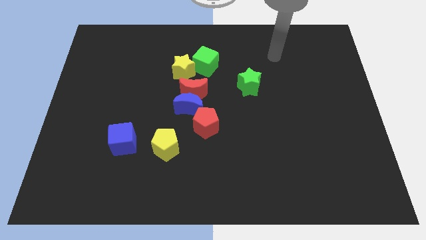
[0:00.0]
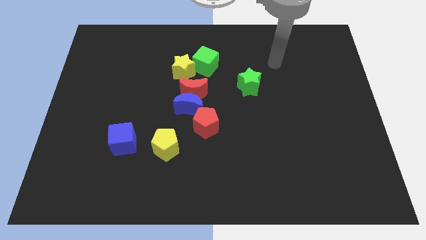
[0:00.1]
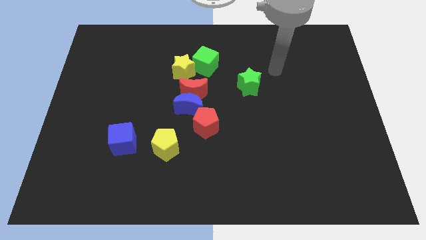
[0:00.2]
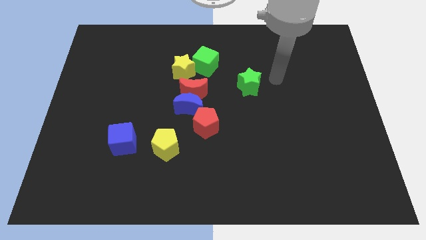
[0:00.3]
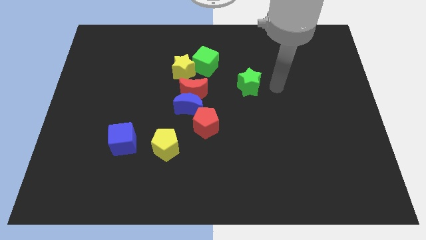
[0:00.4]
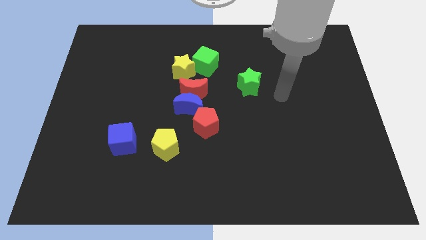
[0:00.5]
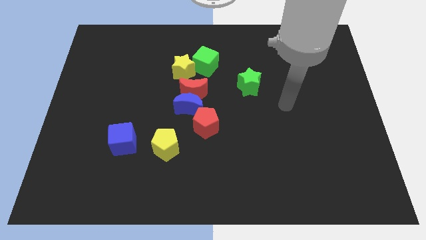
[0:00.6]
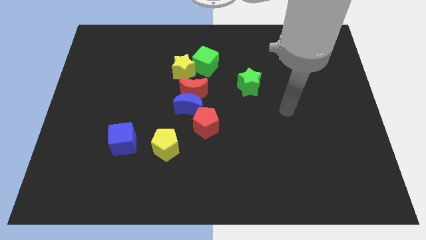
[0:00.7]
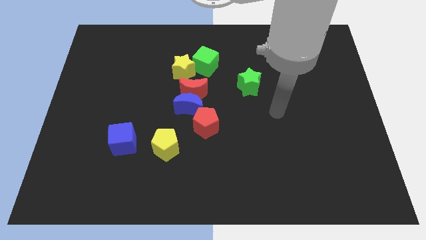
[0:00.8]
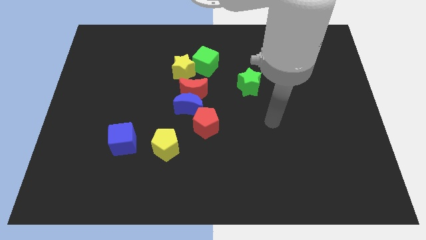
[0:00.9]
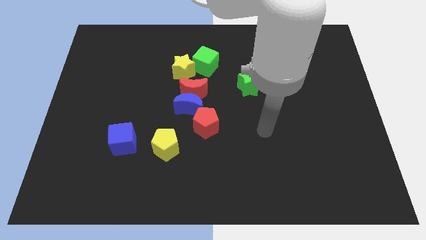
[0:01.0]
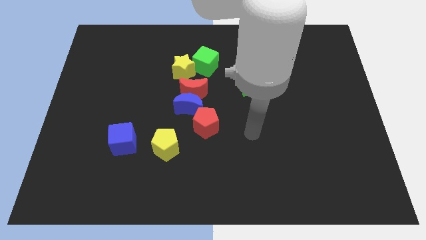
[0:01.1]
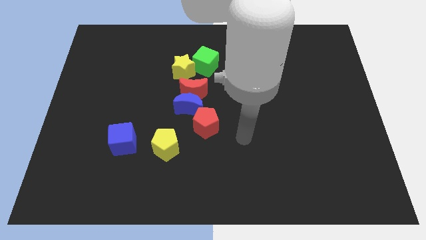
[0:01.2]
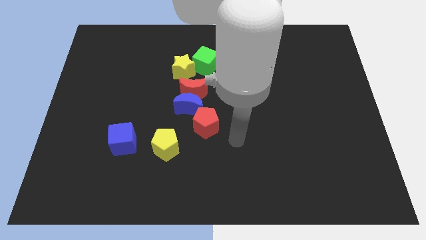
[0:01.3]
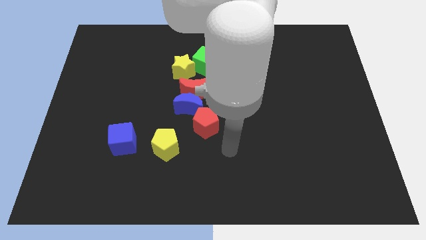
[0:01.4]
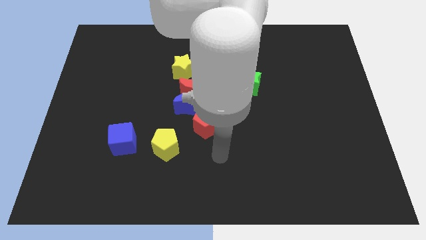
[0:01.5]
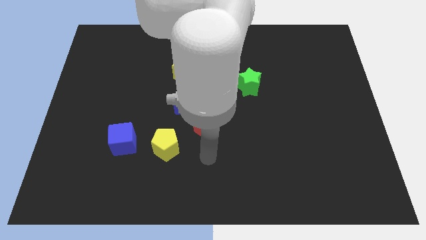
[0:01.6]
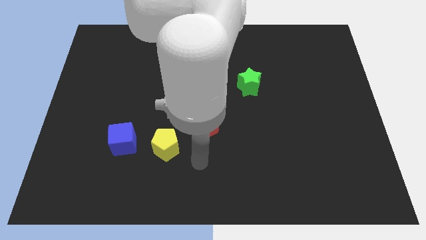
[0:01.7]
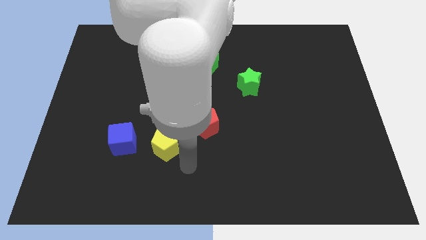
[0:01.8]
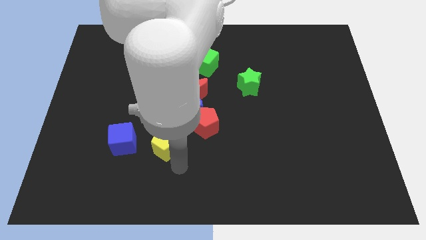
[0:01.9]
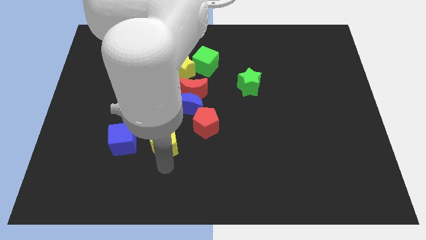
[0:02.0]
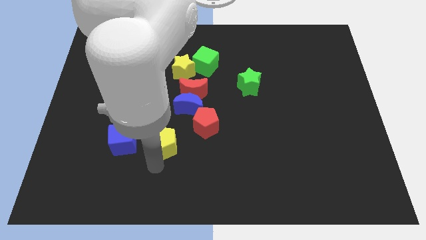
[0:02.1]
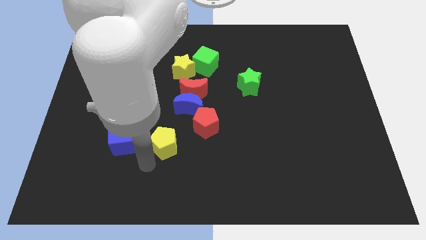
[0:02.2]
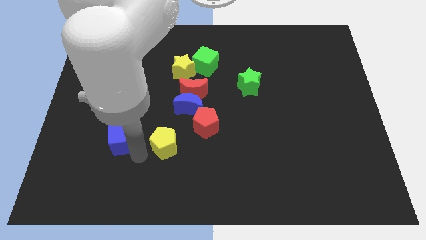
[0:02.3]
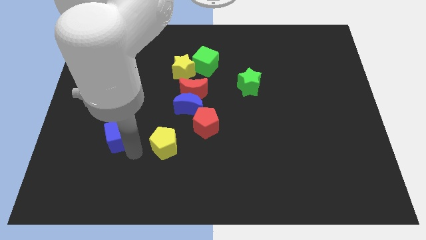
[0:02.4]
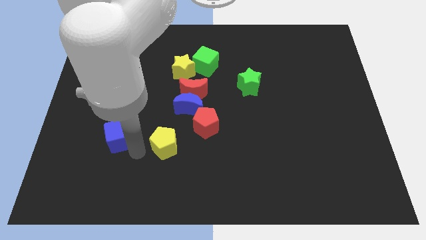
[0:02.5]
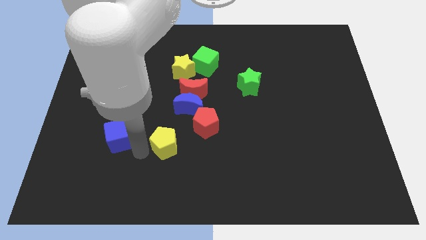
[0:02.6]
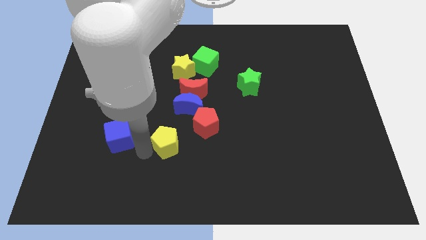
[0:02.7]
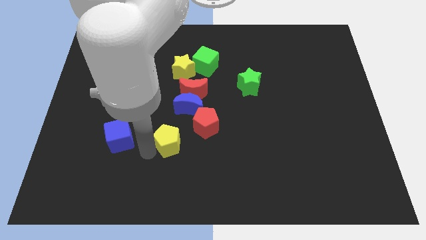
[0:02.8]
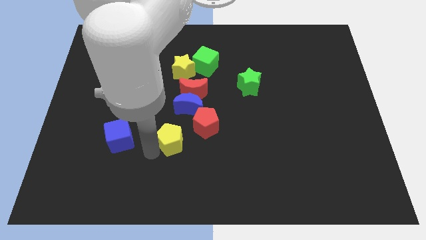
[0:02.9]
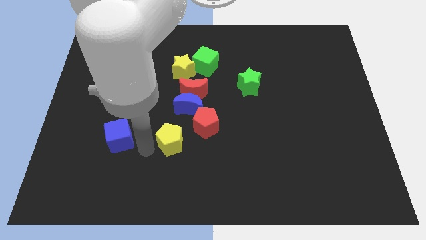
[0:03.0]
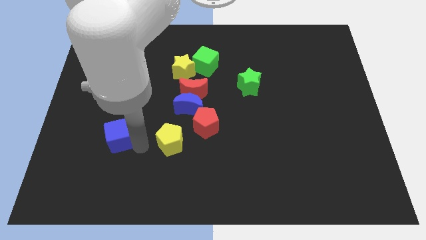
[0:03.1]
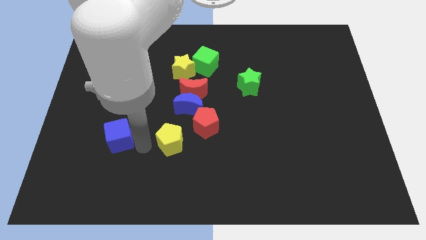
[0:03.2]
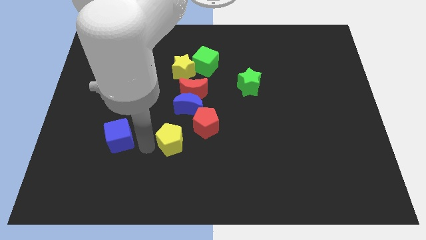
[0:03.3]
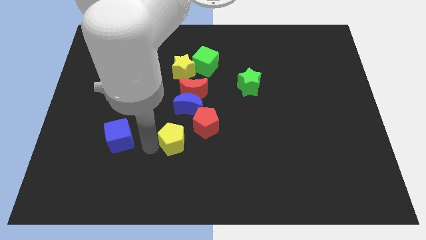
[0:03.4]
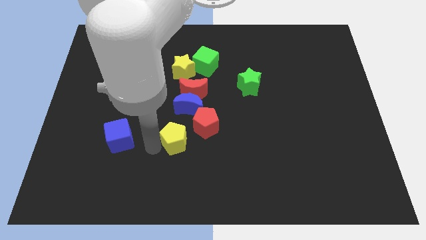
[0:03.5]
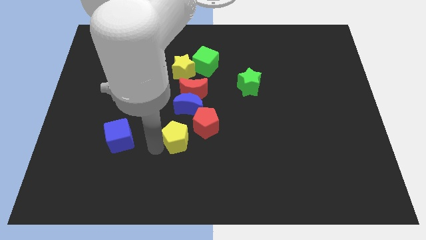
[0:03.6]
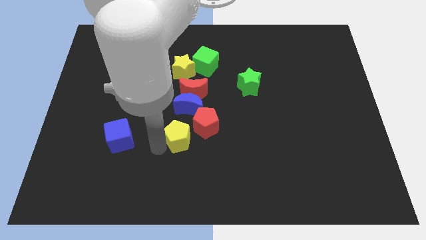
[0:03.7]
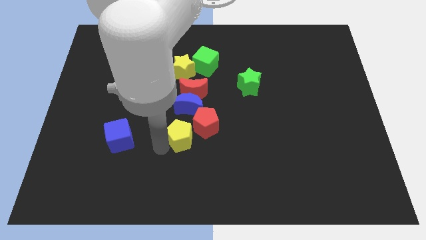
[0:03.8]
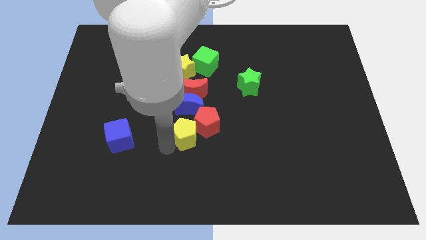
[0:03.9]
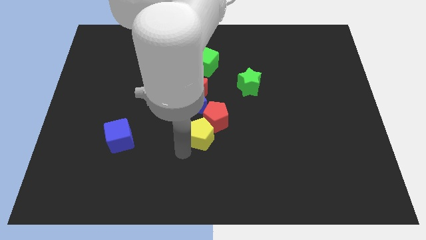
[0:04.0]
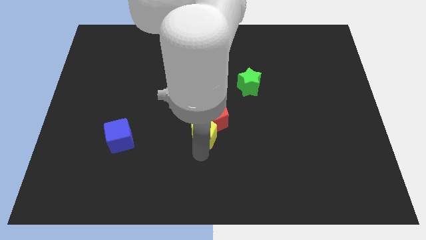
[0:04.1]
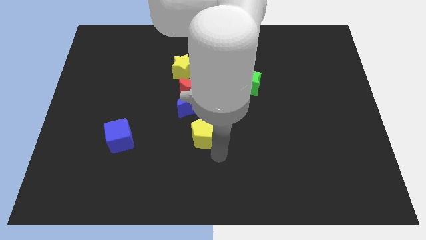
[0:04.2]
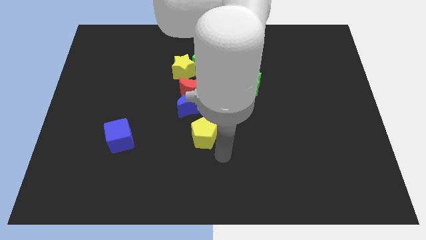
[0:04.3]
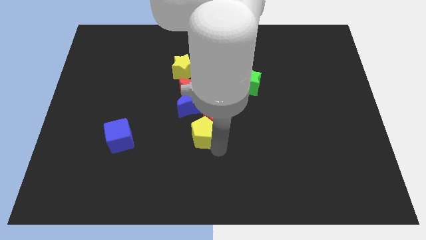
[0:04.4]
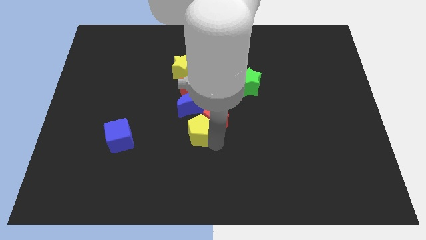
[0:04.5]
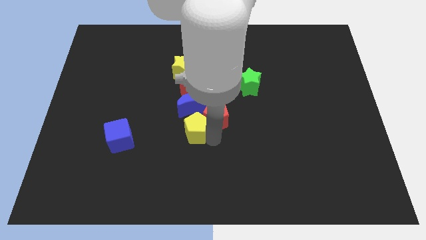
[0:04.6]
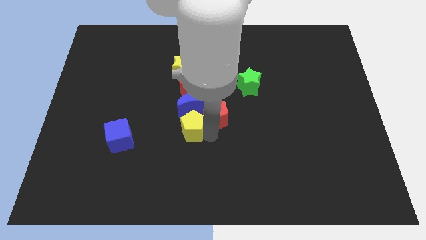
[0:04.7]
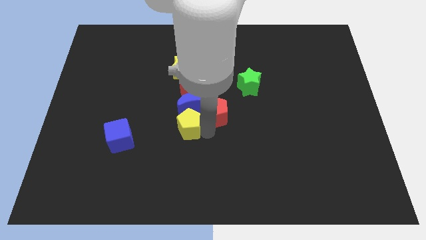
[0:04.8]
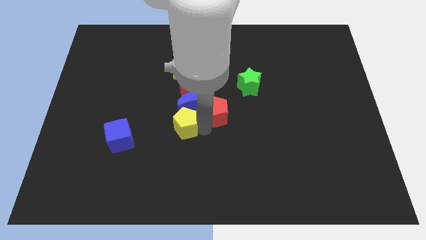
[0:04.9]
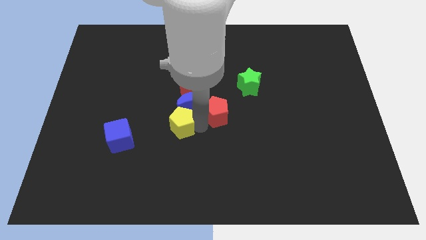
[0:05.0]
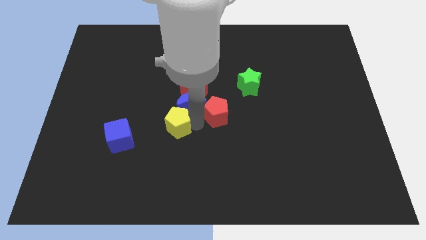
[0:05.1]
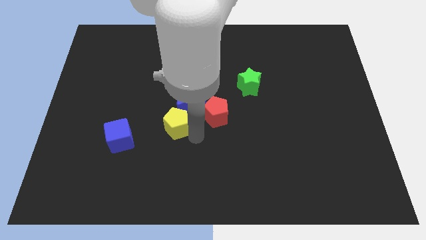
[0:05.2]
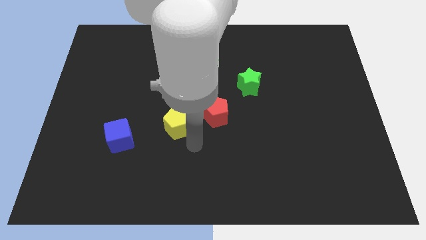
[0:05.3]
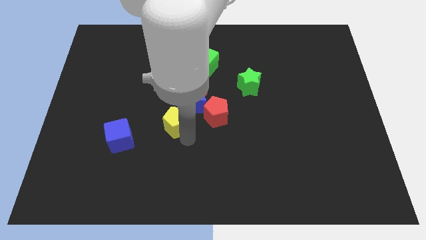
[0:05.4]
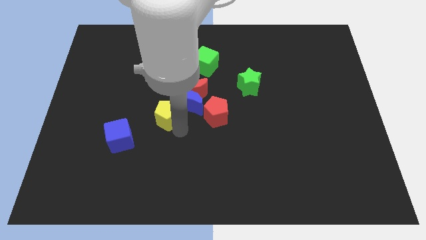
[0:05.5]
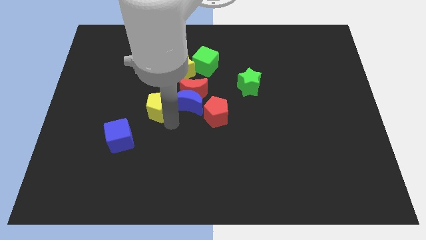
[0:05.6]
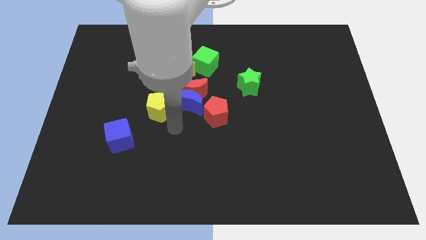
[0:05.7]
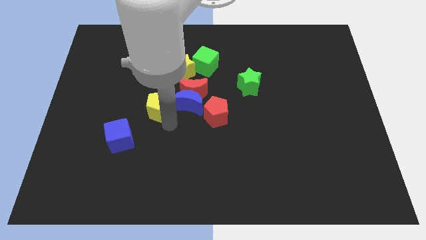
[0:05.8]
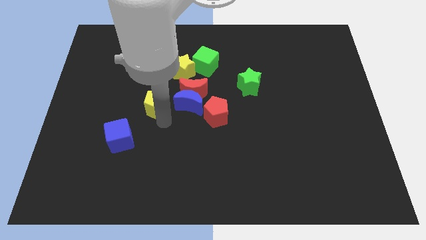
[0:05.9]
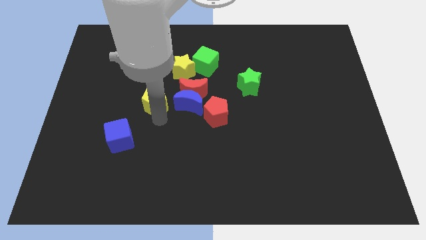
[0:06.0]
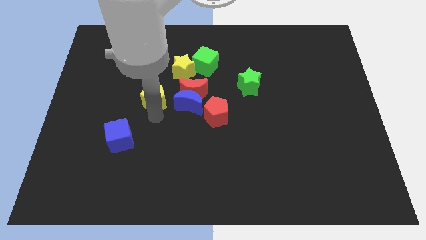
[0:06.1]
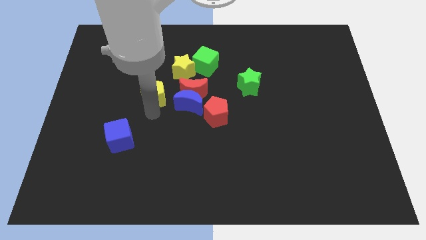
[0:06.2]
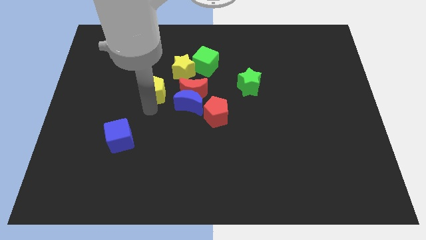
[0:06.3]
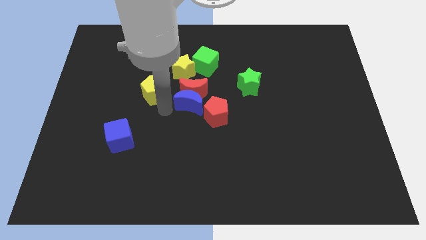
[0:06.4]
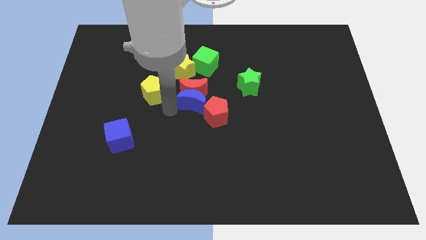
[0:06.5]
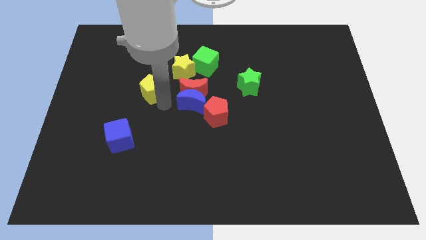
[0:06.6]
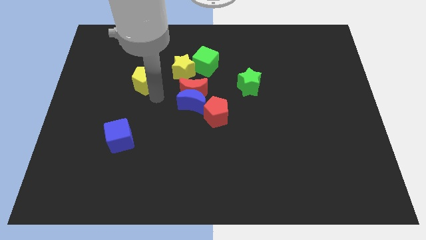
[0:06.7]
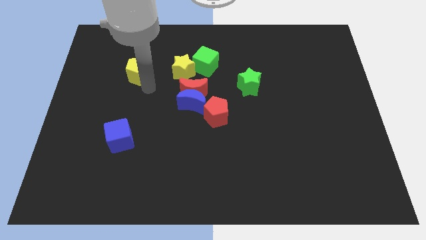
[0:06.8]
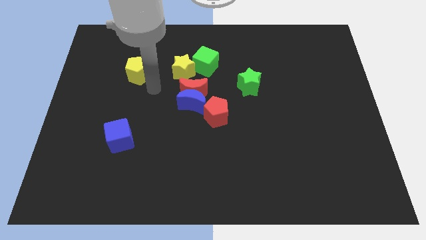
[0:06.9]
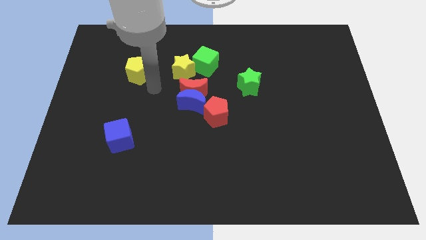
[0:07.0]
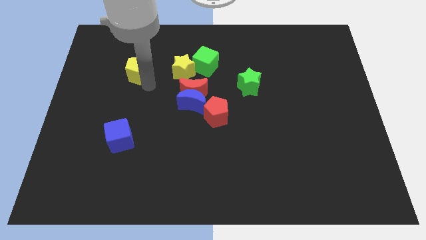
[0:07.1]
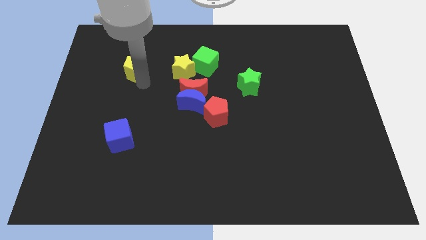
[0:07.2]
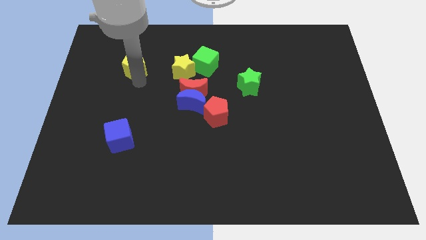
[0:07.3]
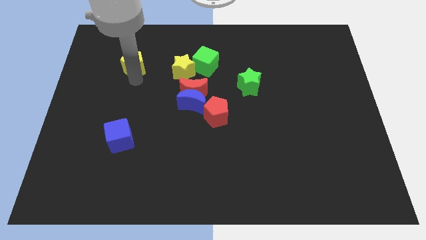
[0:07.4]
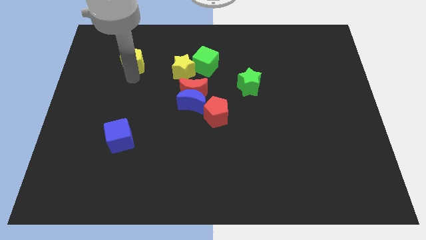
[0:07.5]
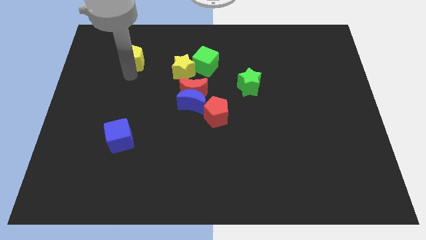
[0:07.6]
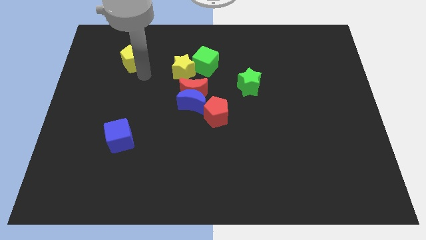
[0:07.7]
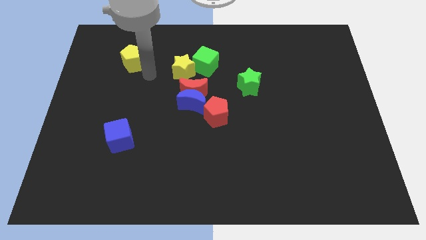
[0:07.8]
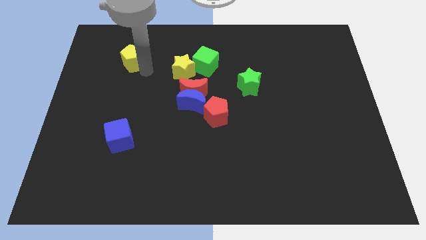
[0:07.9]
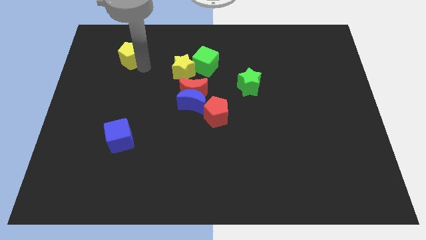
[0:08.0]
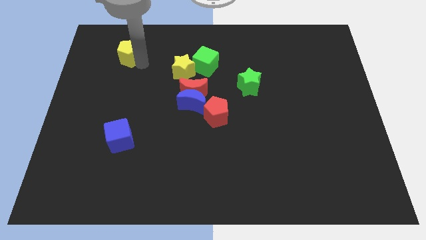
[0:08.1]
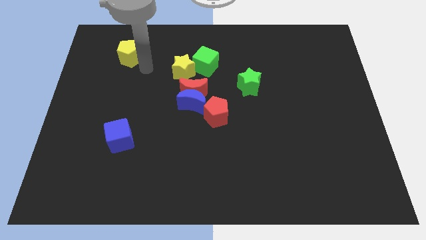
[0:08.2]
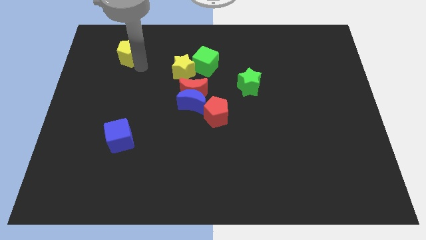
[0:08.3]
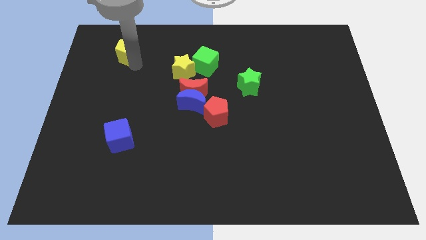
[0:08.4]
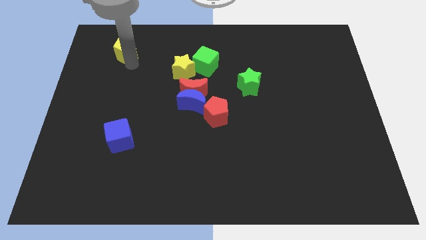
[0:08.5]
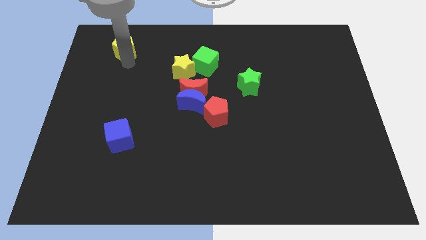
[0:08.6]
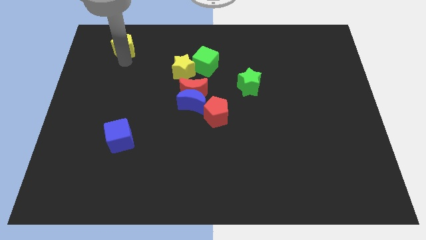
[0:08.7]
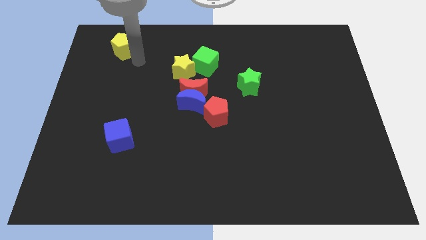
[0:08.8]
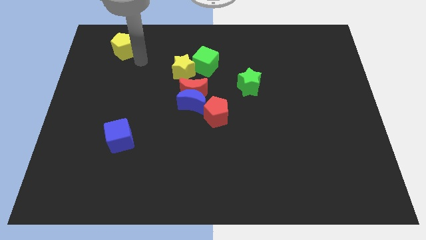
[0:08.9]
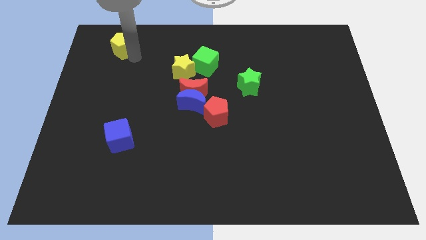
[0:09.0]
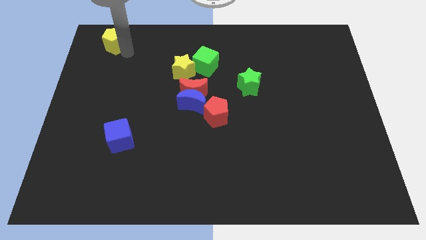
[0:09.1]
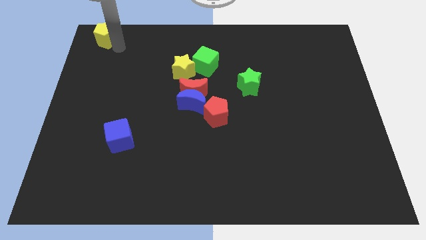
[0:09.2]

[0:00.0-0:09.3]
move the yellow pentagon to the top left of the board
